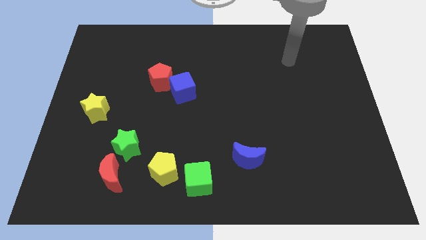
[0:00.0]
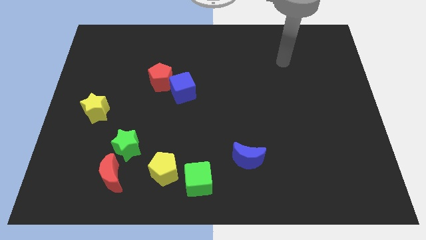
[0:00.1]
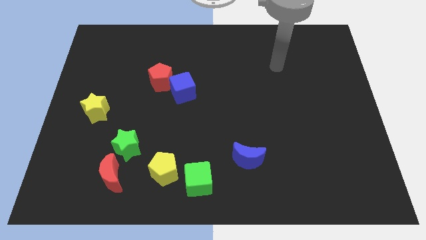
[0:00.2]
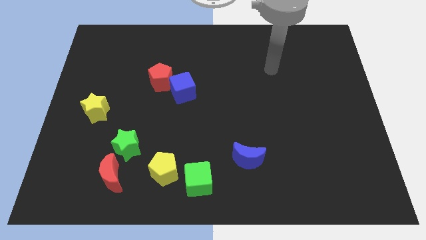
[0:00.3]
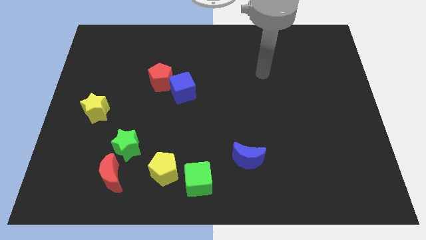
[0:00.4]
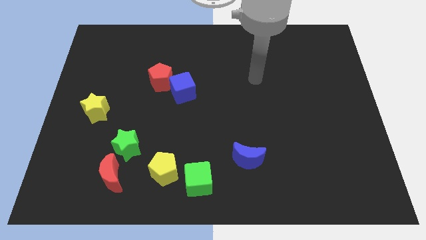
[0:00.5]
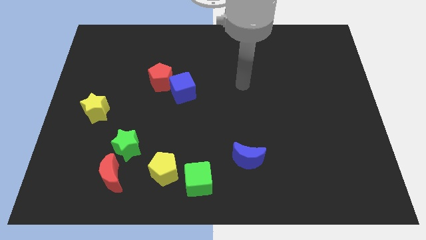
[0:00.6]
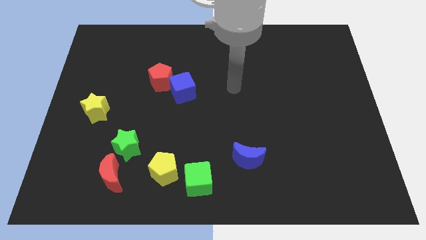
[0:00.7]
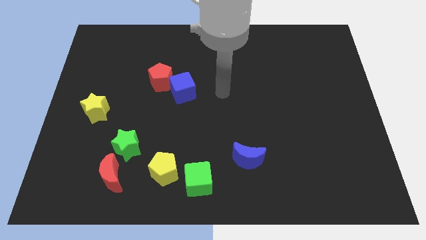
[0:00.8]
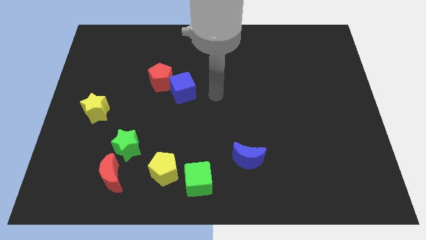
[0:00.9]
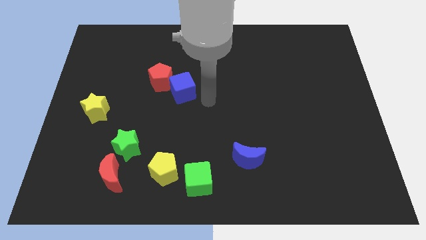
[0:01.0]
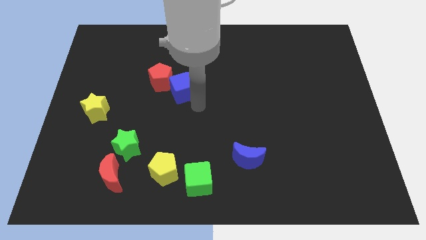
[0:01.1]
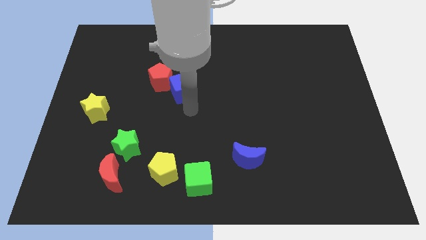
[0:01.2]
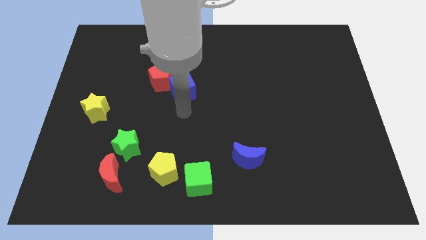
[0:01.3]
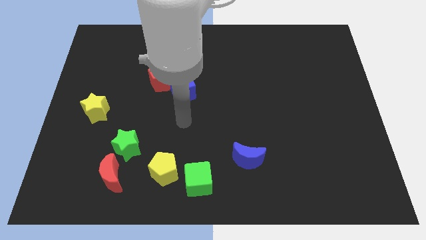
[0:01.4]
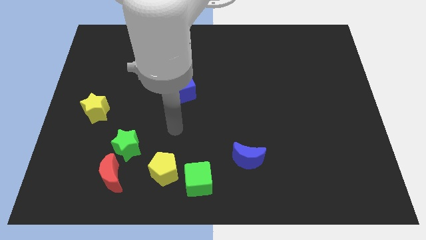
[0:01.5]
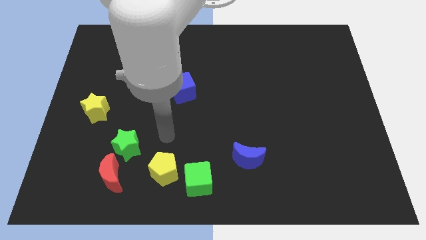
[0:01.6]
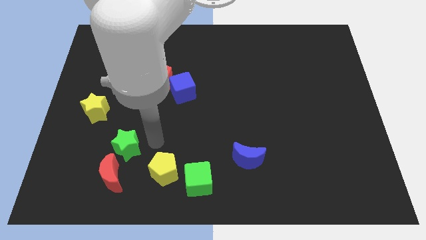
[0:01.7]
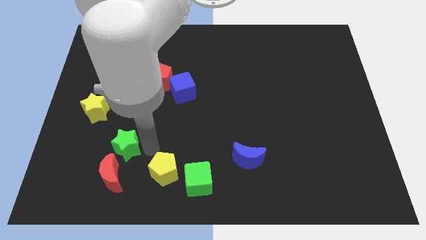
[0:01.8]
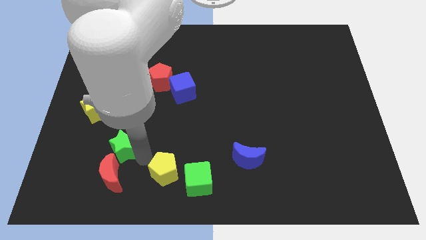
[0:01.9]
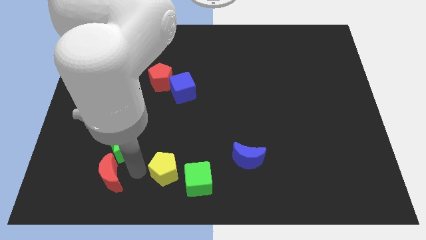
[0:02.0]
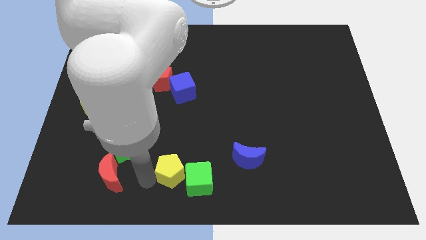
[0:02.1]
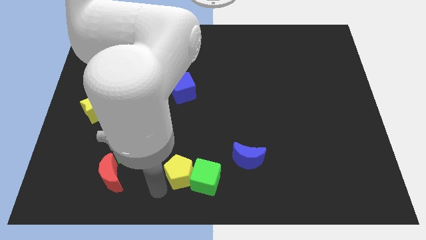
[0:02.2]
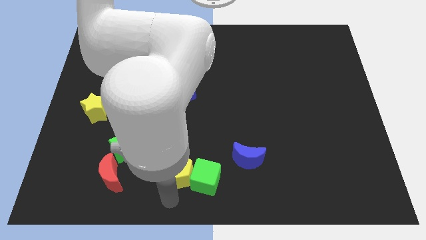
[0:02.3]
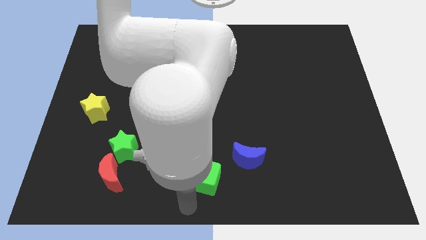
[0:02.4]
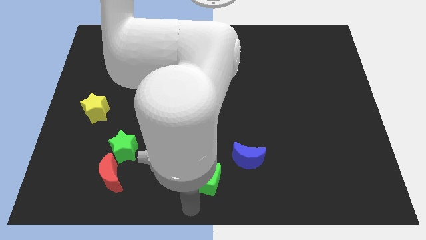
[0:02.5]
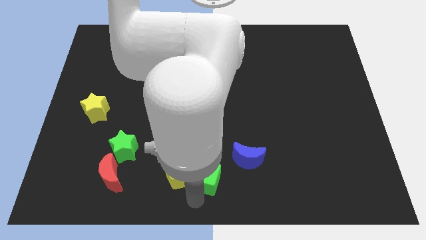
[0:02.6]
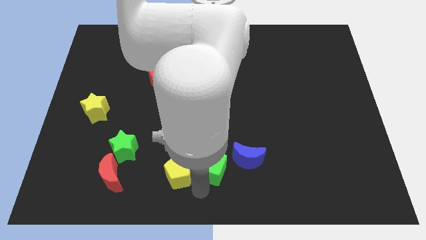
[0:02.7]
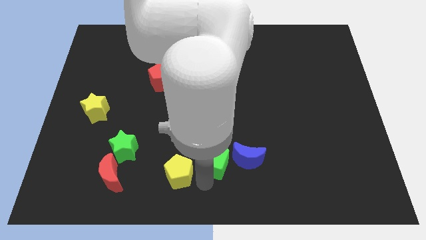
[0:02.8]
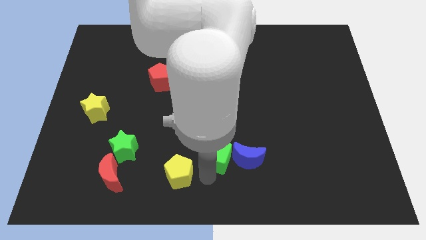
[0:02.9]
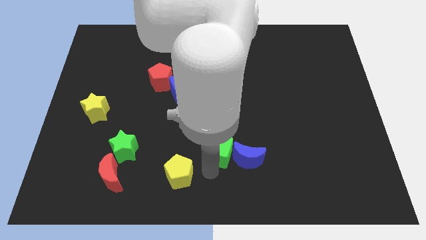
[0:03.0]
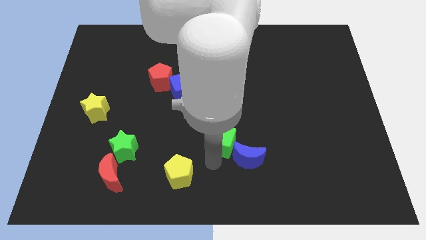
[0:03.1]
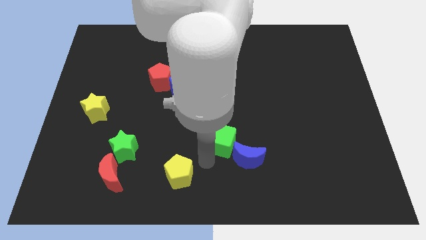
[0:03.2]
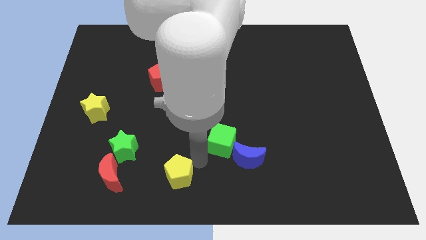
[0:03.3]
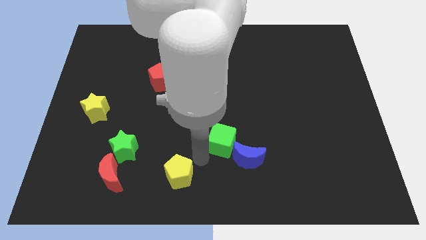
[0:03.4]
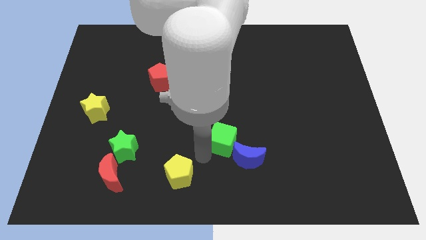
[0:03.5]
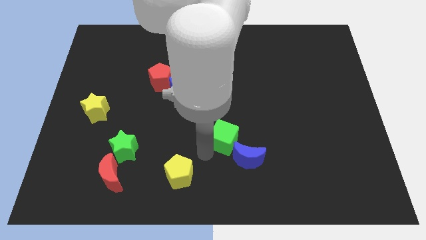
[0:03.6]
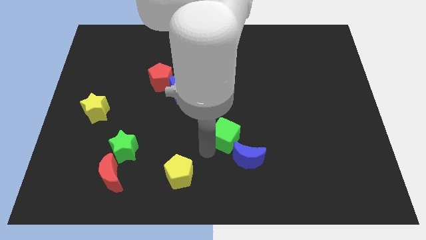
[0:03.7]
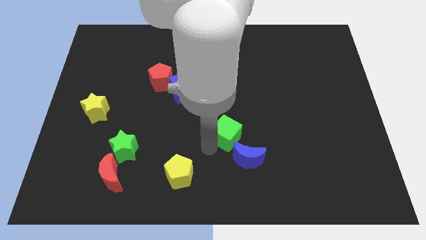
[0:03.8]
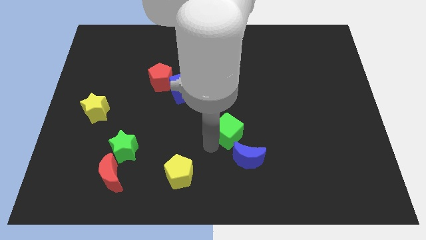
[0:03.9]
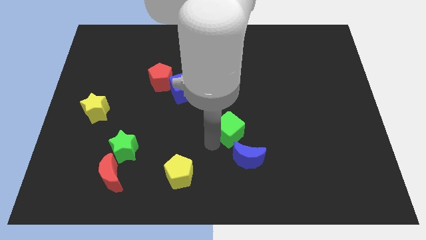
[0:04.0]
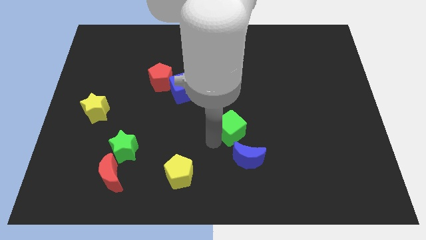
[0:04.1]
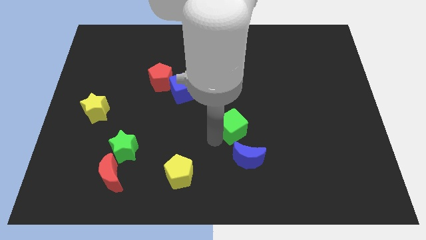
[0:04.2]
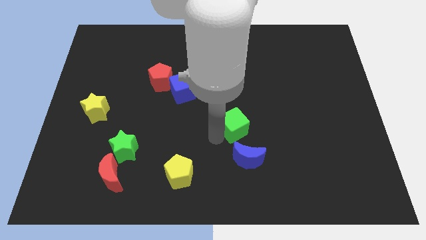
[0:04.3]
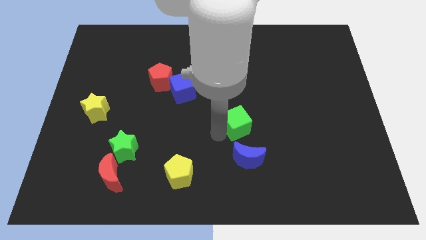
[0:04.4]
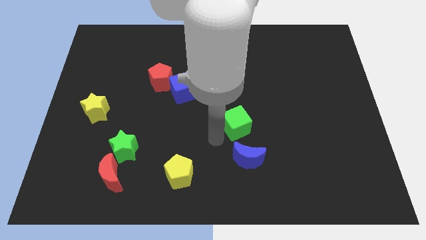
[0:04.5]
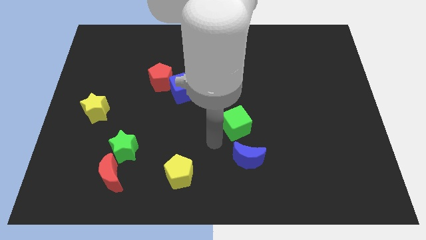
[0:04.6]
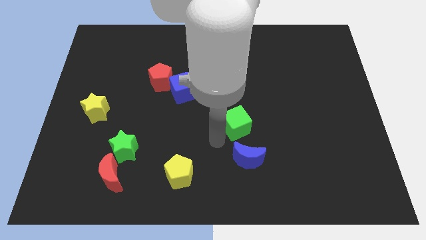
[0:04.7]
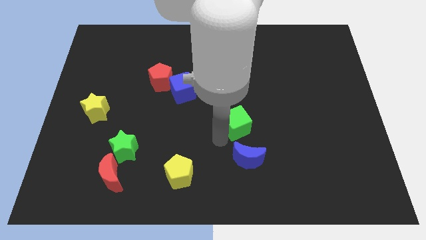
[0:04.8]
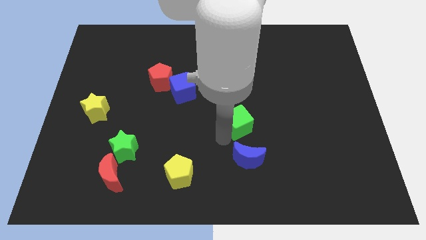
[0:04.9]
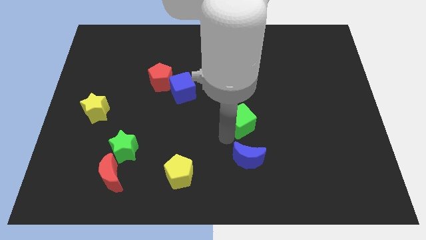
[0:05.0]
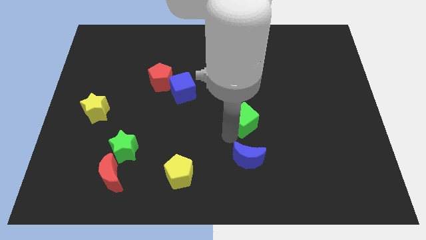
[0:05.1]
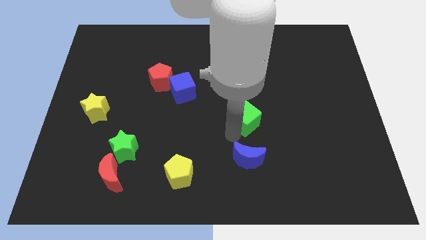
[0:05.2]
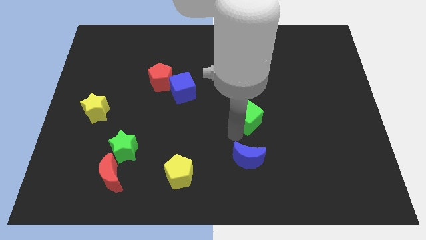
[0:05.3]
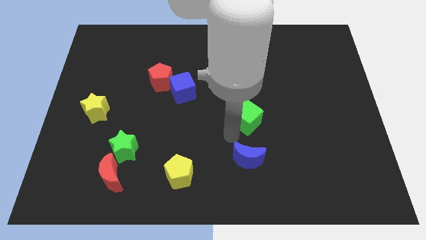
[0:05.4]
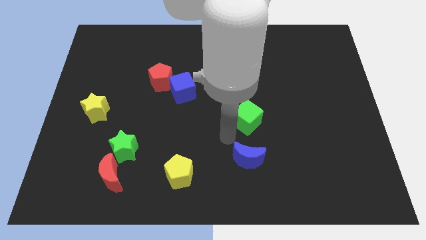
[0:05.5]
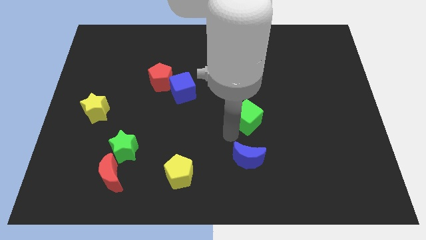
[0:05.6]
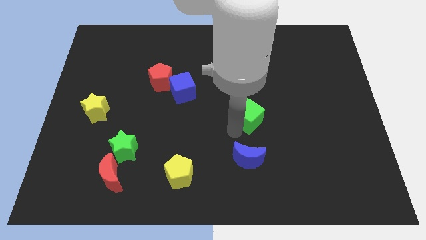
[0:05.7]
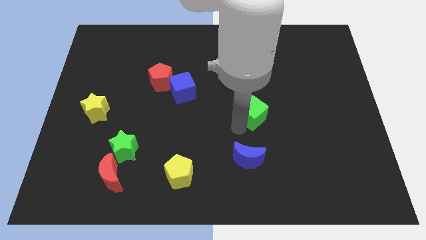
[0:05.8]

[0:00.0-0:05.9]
push the green cube up and to the right diagonally

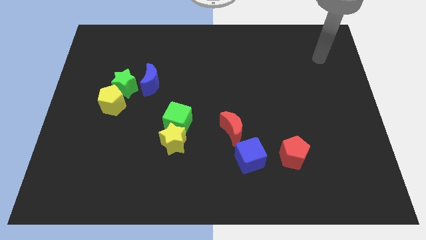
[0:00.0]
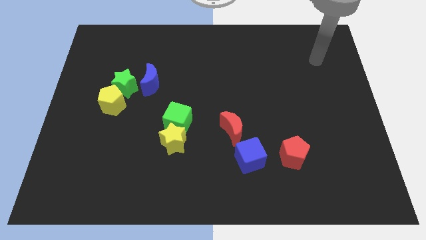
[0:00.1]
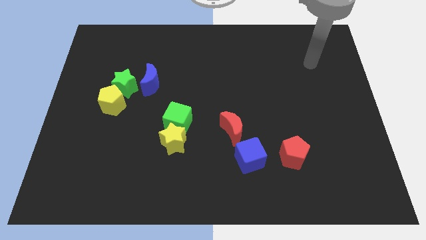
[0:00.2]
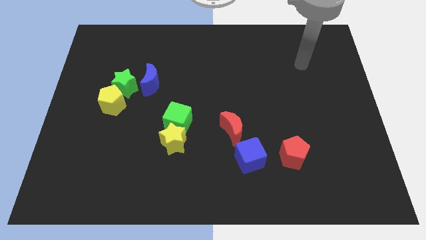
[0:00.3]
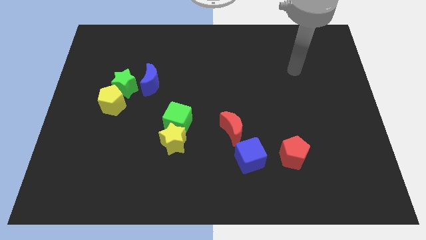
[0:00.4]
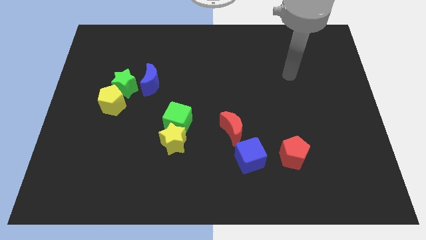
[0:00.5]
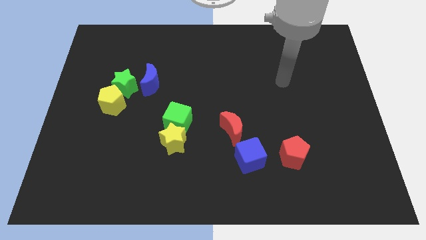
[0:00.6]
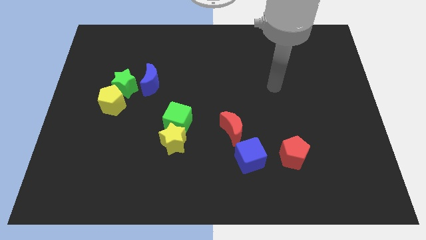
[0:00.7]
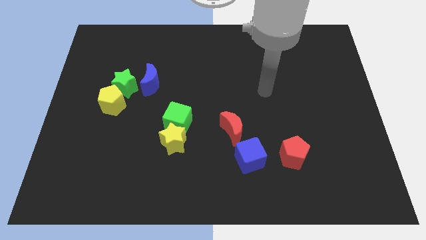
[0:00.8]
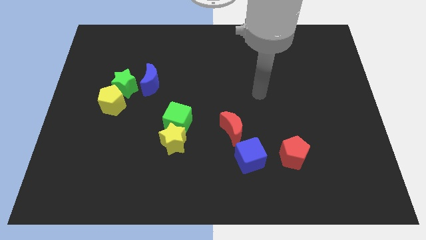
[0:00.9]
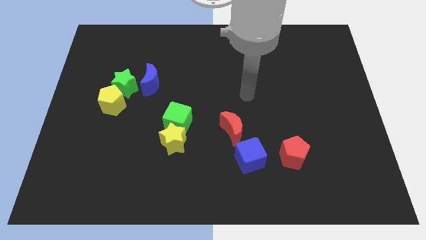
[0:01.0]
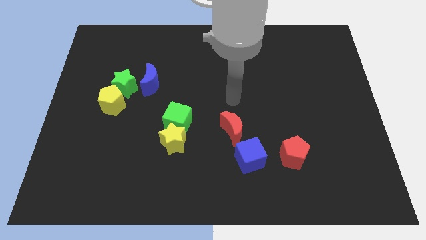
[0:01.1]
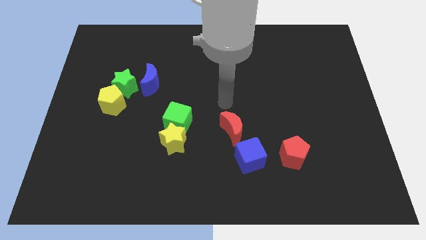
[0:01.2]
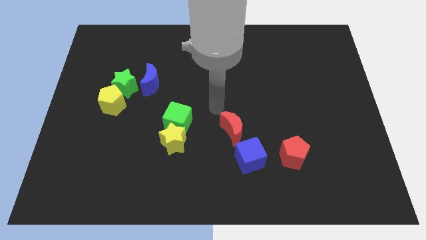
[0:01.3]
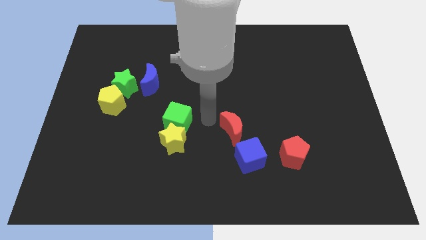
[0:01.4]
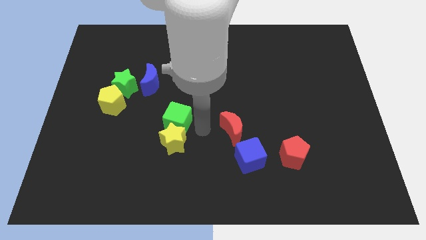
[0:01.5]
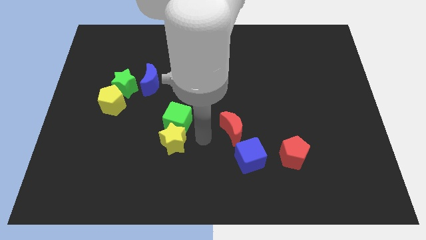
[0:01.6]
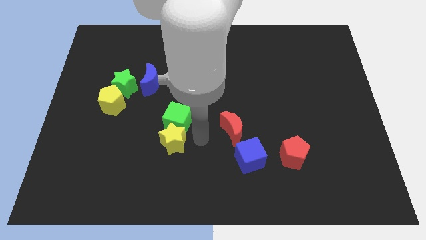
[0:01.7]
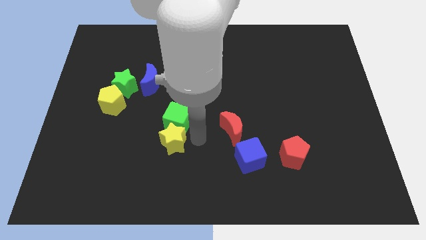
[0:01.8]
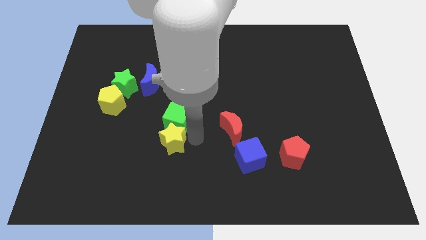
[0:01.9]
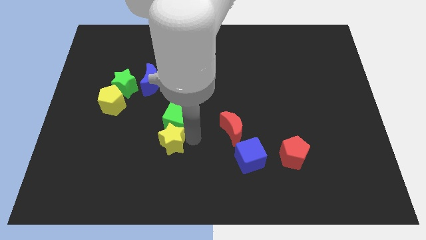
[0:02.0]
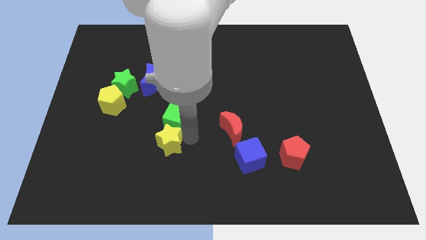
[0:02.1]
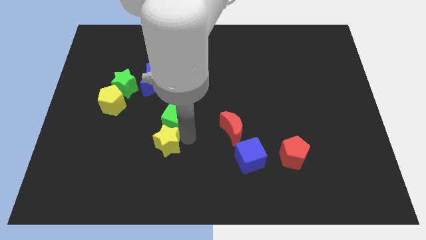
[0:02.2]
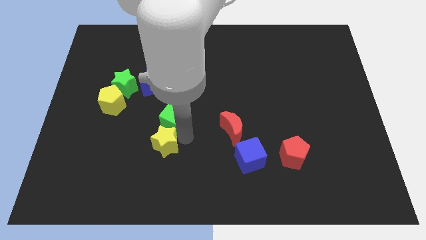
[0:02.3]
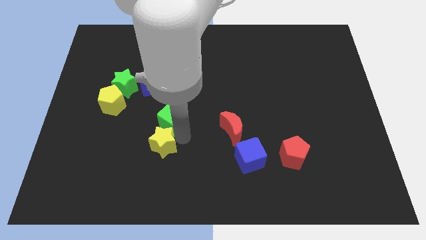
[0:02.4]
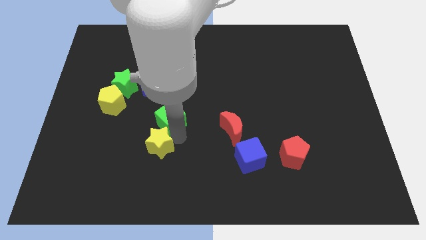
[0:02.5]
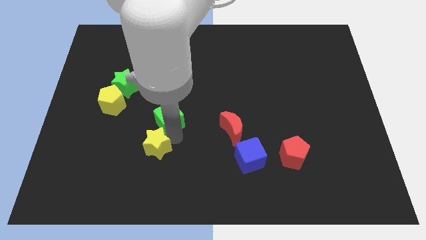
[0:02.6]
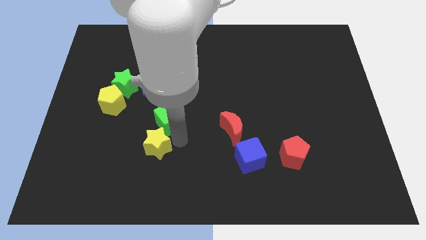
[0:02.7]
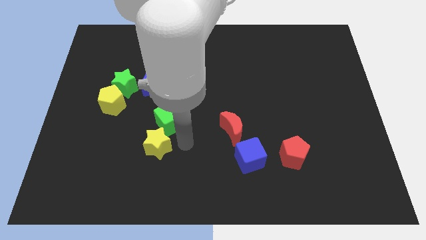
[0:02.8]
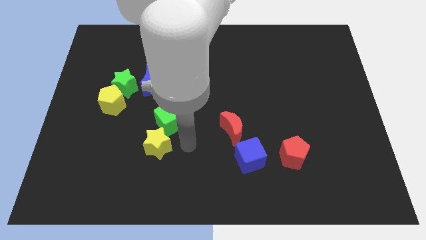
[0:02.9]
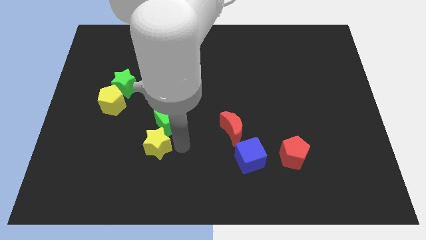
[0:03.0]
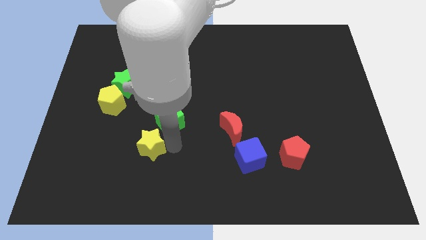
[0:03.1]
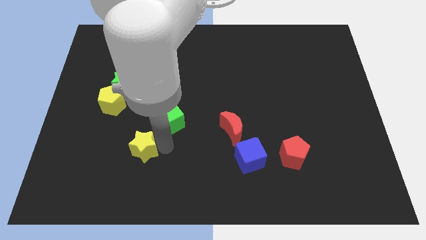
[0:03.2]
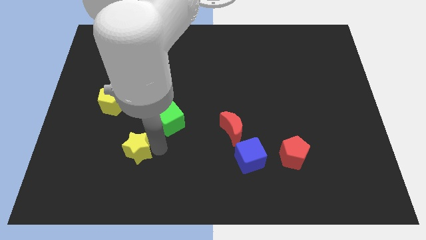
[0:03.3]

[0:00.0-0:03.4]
slide the yellow star a bit left
